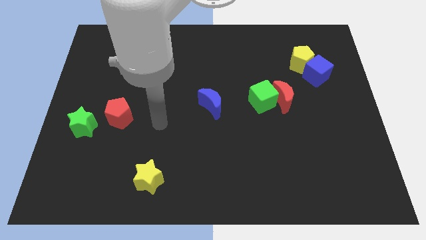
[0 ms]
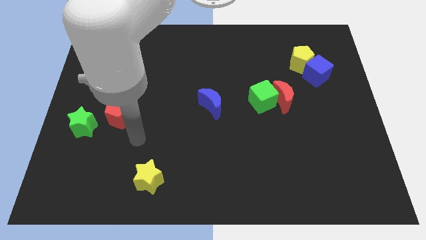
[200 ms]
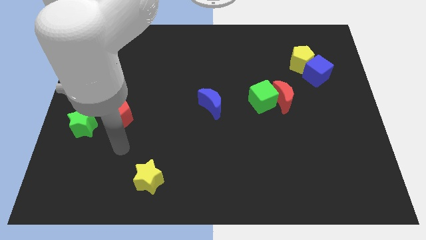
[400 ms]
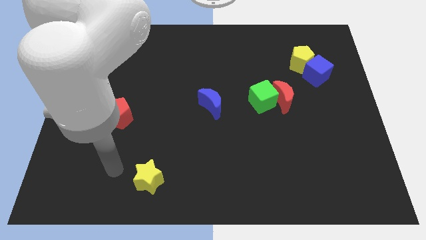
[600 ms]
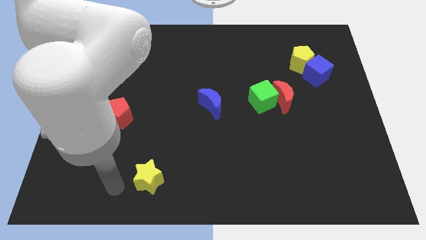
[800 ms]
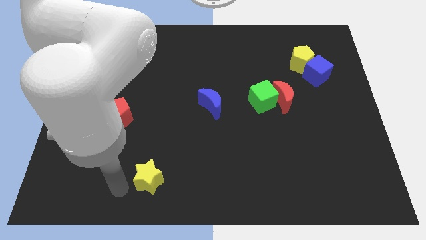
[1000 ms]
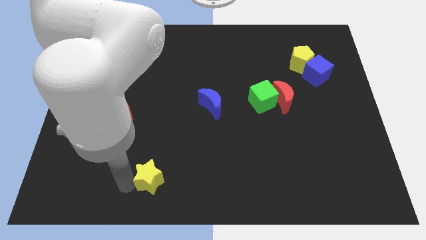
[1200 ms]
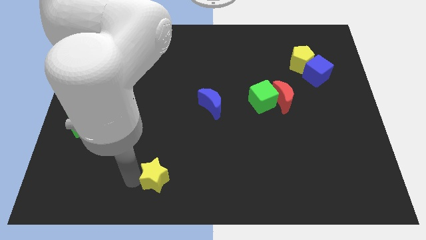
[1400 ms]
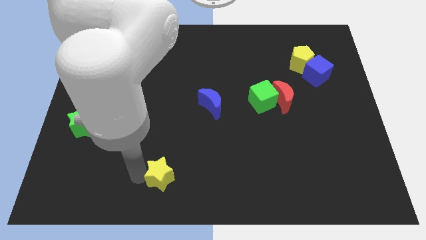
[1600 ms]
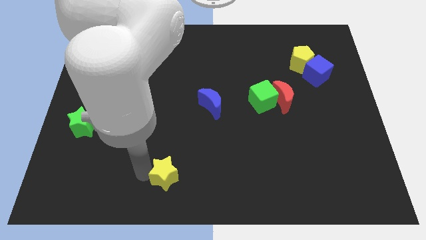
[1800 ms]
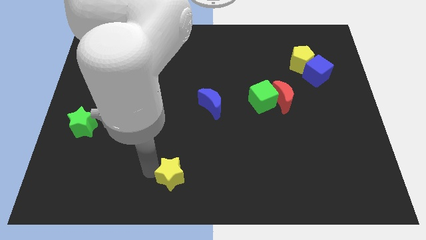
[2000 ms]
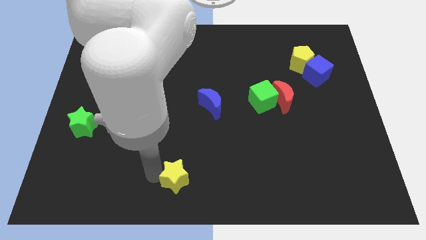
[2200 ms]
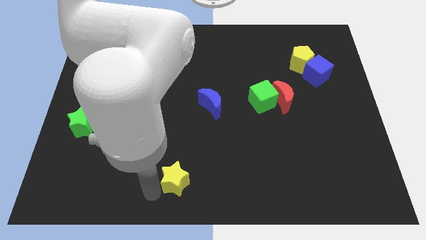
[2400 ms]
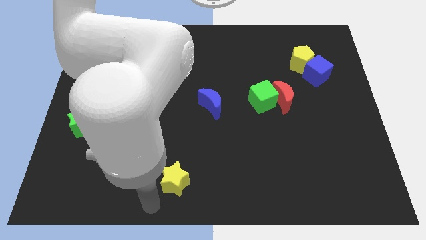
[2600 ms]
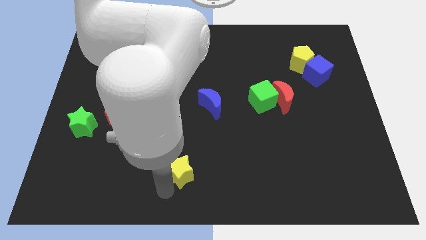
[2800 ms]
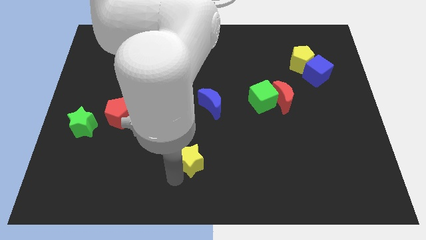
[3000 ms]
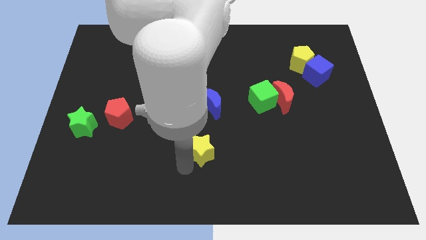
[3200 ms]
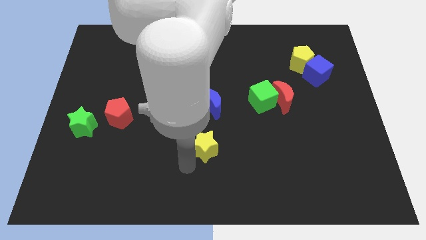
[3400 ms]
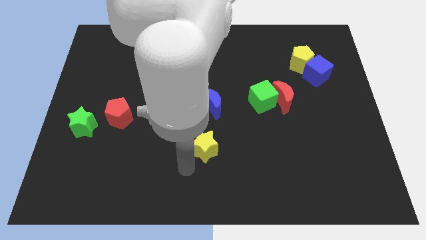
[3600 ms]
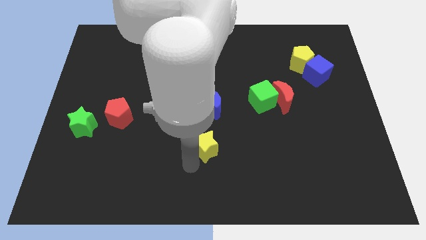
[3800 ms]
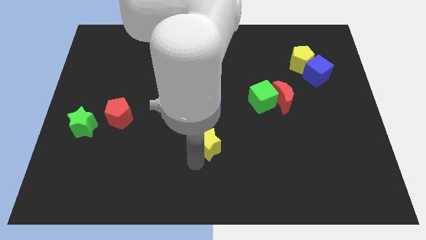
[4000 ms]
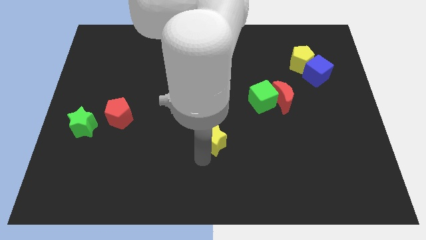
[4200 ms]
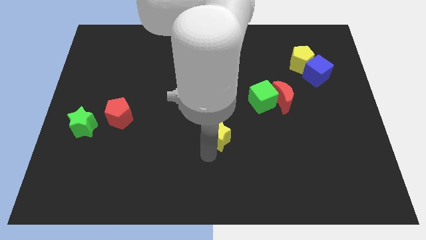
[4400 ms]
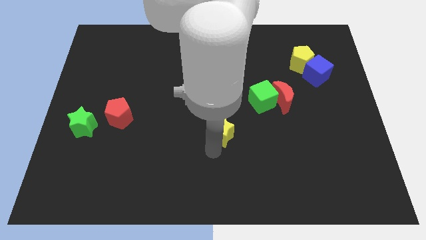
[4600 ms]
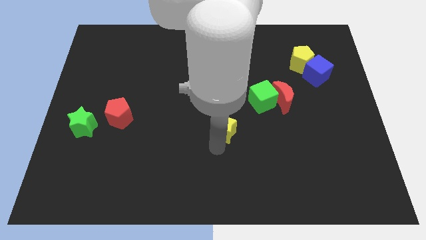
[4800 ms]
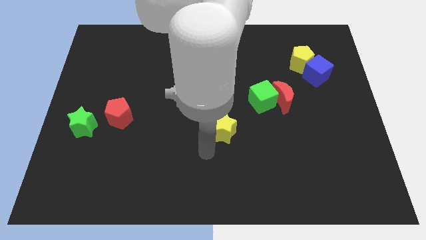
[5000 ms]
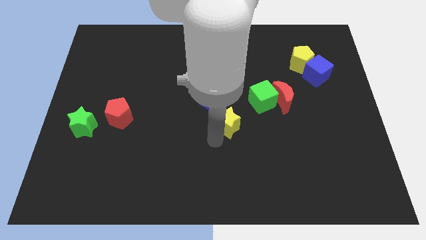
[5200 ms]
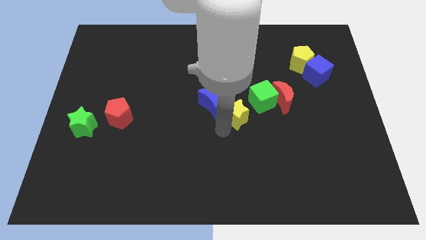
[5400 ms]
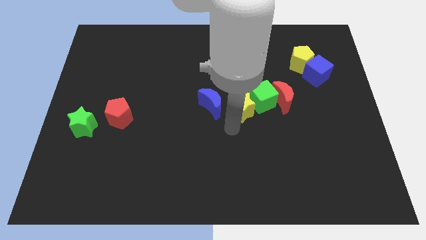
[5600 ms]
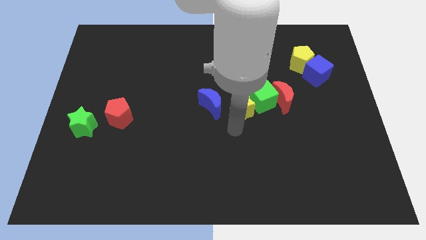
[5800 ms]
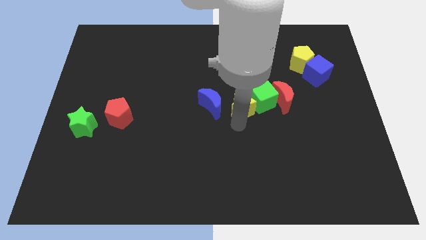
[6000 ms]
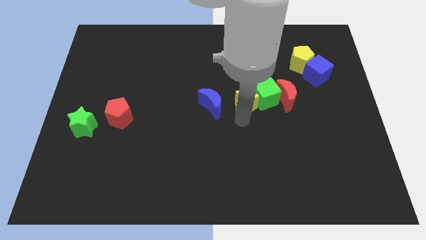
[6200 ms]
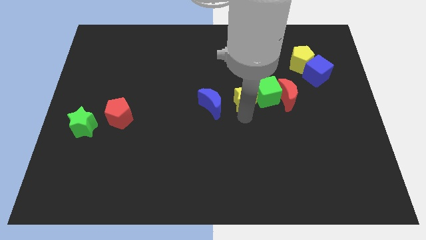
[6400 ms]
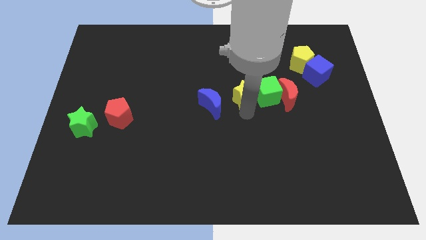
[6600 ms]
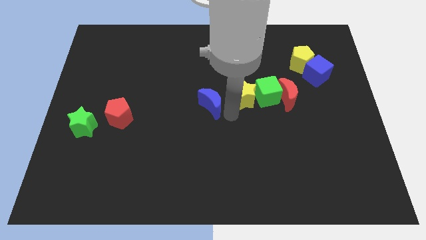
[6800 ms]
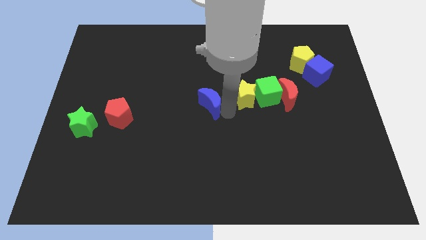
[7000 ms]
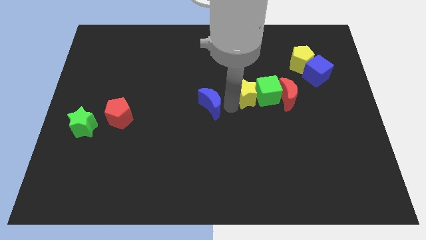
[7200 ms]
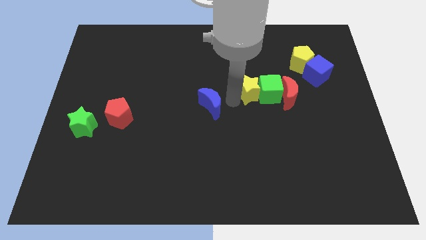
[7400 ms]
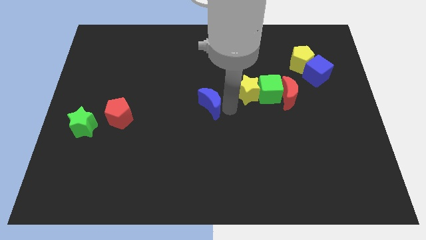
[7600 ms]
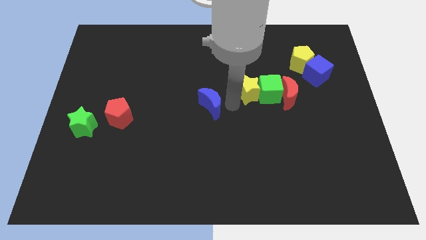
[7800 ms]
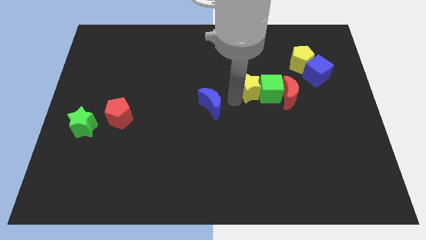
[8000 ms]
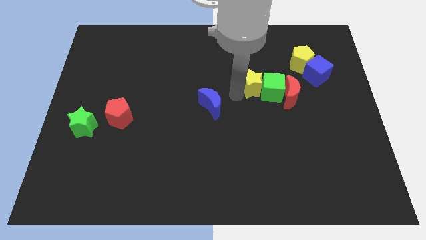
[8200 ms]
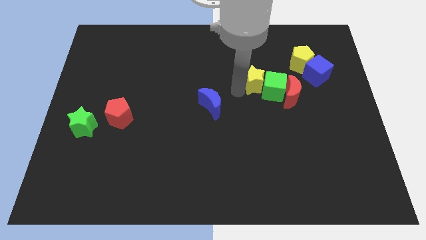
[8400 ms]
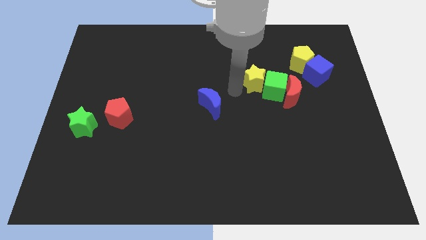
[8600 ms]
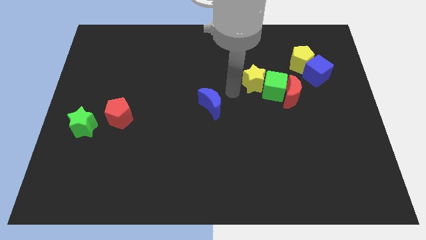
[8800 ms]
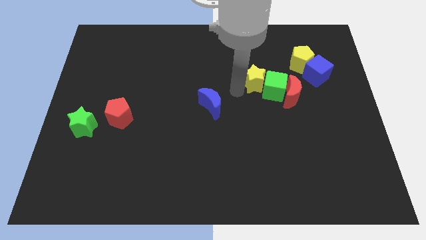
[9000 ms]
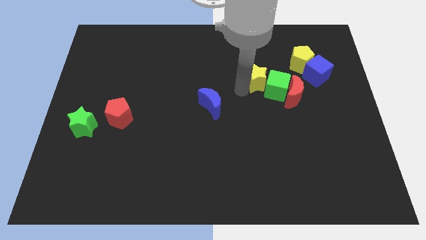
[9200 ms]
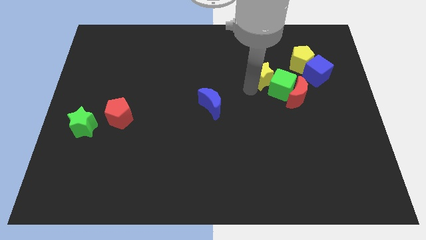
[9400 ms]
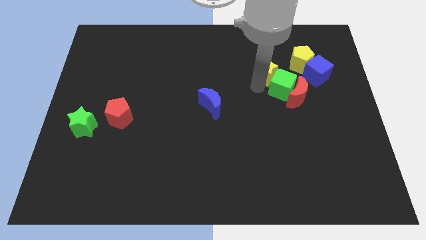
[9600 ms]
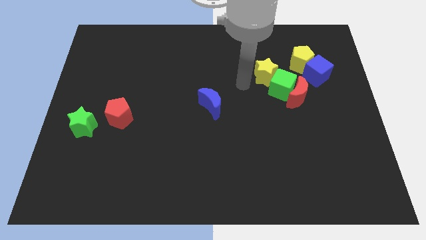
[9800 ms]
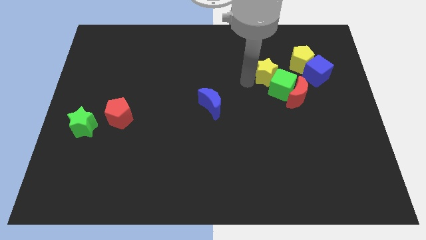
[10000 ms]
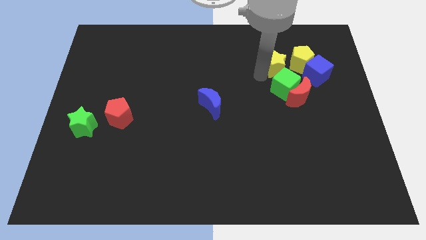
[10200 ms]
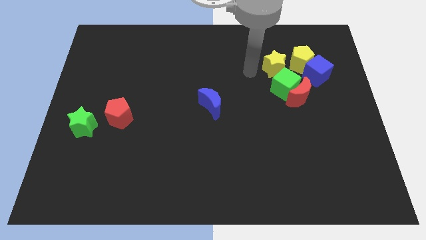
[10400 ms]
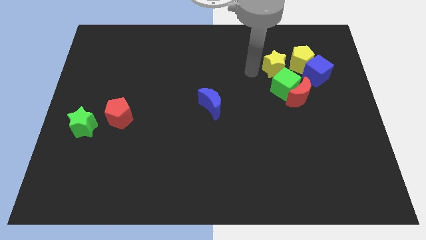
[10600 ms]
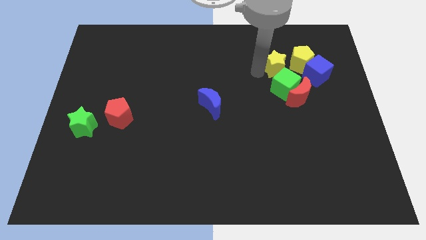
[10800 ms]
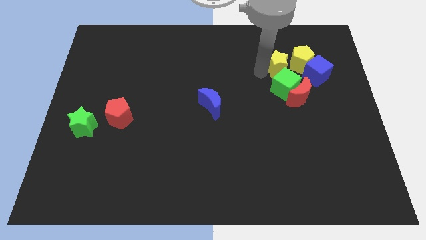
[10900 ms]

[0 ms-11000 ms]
push the yellow star to the top of the red moon

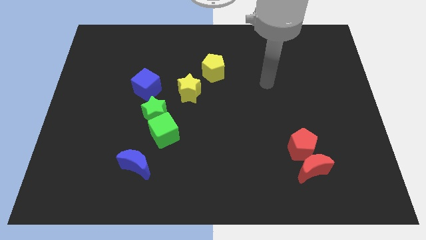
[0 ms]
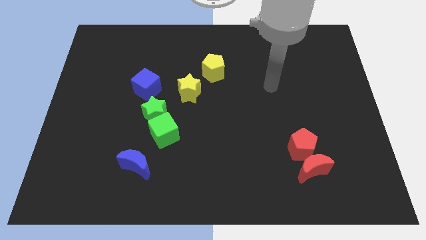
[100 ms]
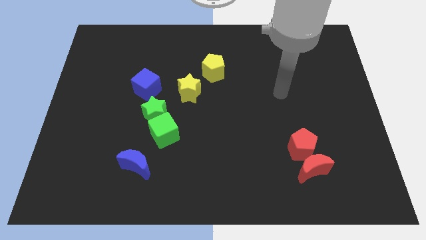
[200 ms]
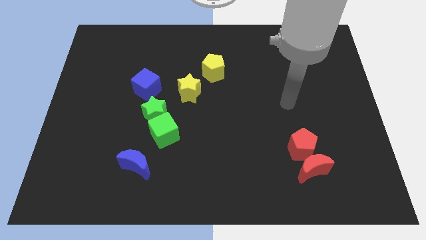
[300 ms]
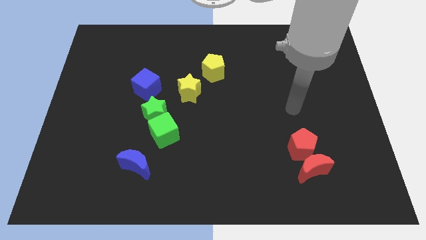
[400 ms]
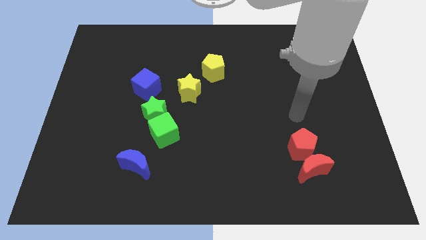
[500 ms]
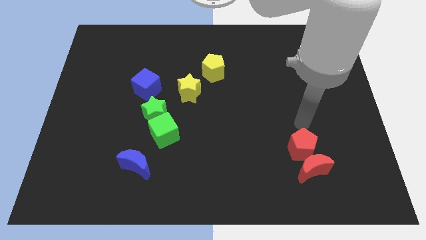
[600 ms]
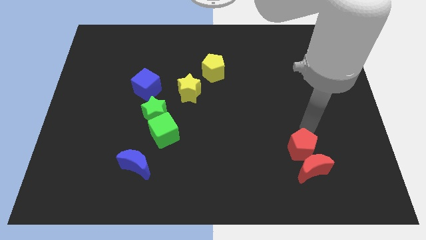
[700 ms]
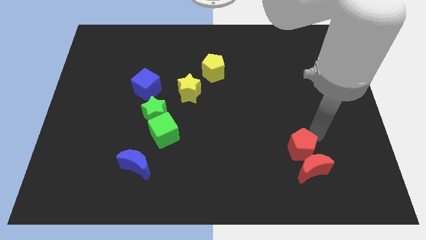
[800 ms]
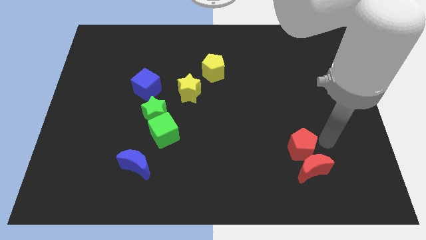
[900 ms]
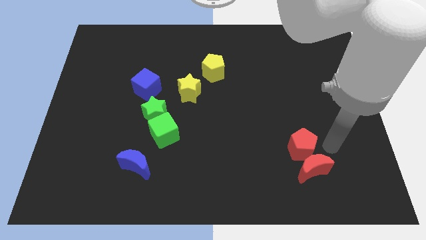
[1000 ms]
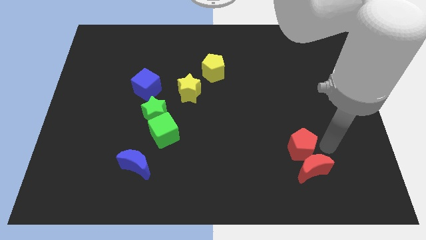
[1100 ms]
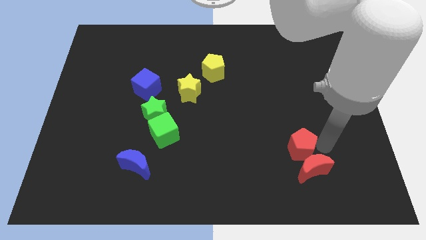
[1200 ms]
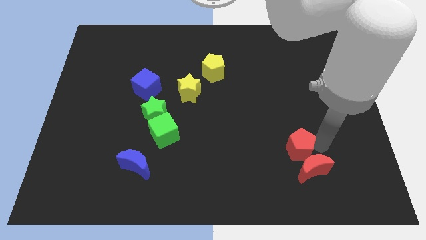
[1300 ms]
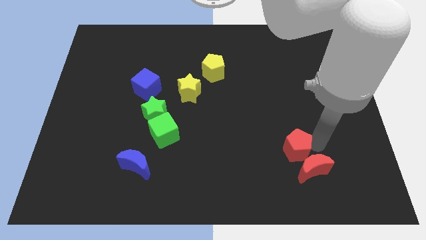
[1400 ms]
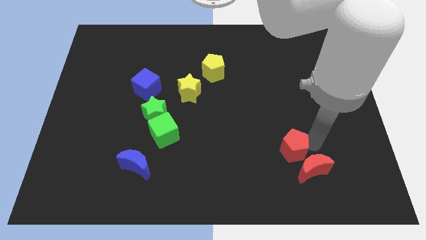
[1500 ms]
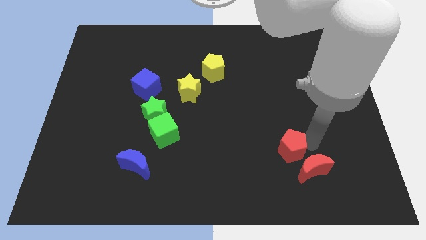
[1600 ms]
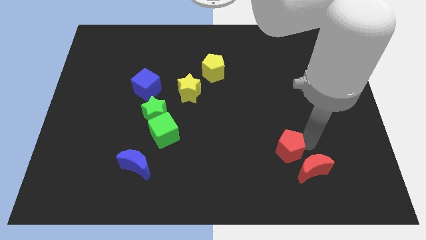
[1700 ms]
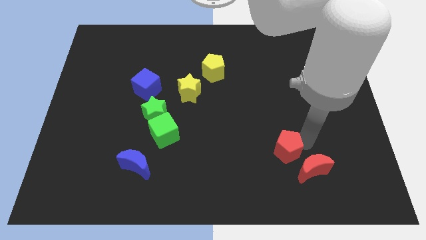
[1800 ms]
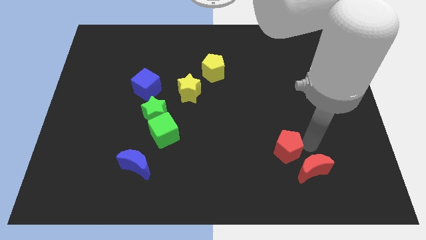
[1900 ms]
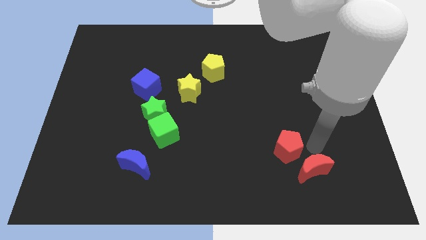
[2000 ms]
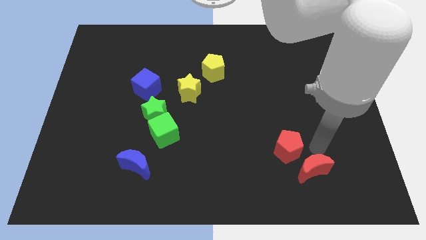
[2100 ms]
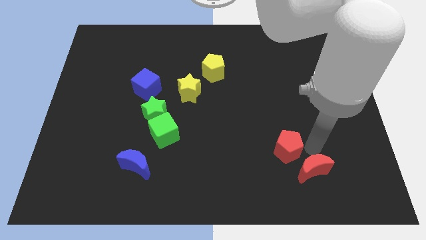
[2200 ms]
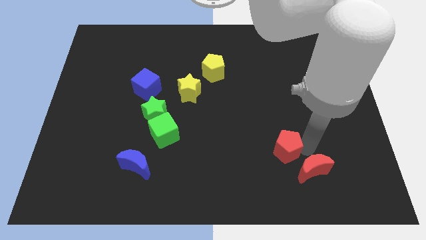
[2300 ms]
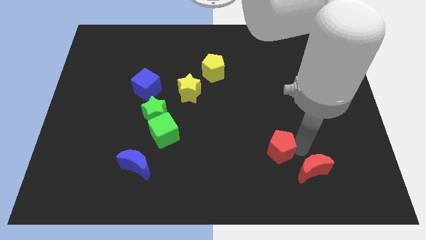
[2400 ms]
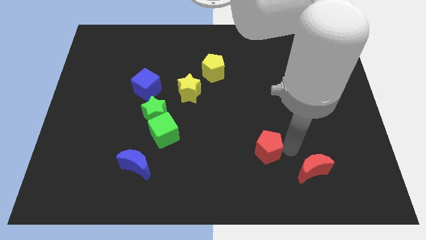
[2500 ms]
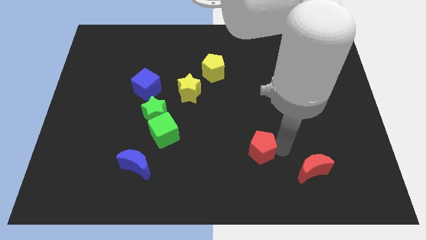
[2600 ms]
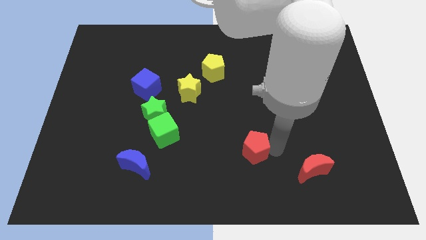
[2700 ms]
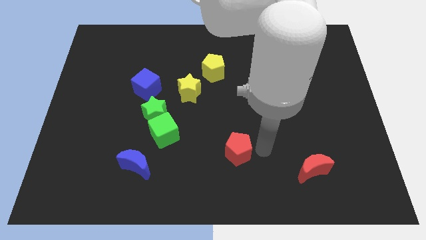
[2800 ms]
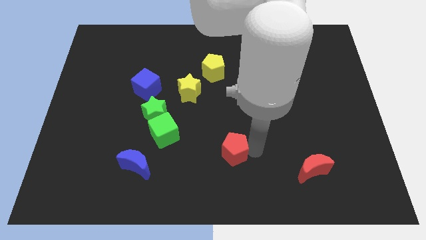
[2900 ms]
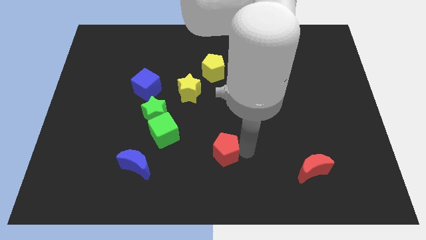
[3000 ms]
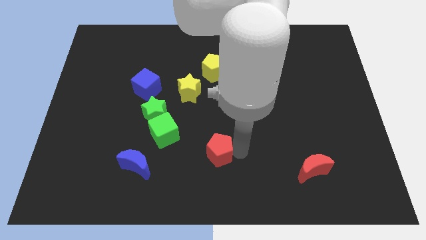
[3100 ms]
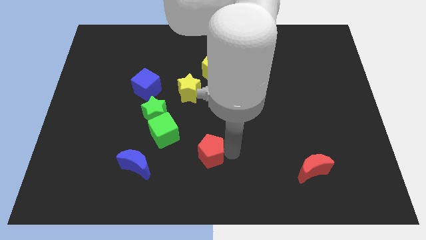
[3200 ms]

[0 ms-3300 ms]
push the red pentagon to the bottom right side of the green cube
